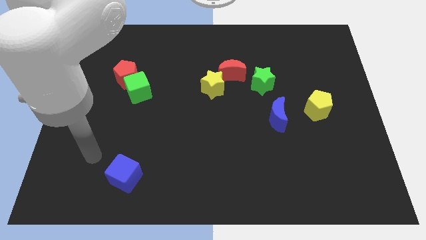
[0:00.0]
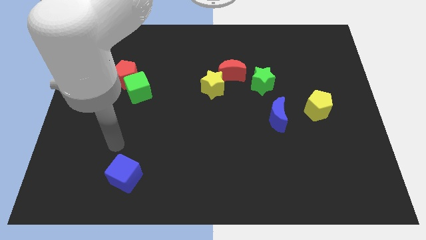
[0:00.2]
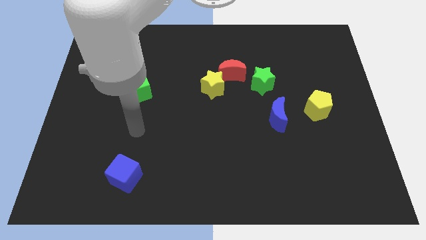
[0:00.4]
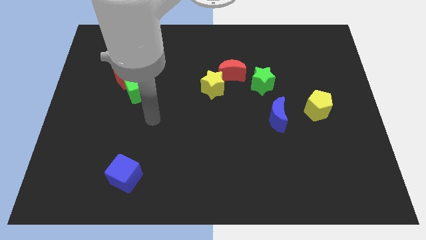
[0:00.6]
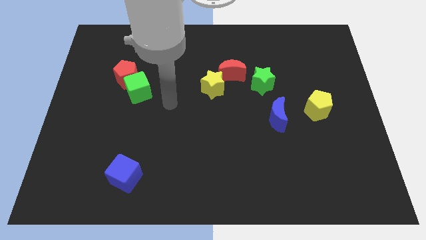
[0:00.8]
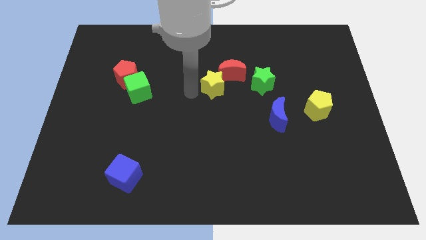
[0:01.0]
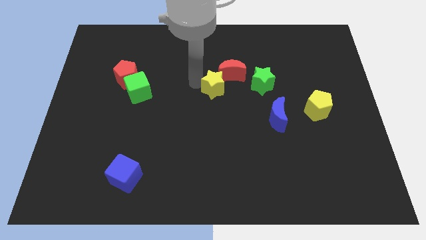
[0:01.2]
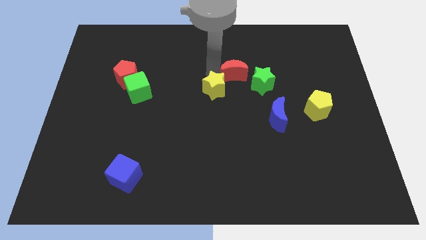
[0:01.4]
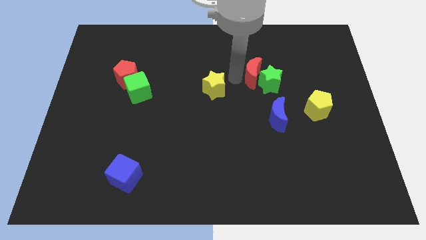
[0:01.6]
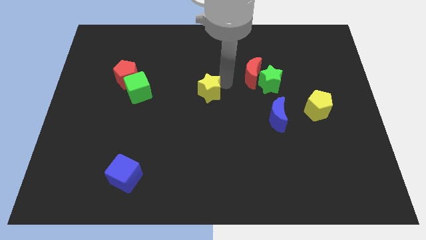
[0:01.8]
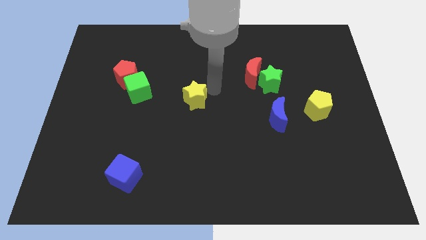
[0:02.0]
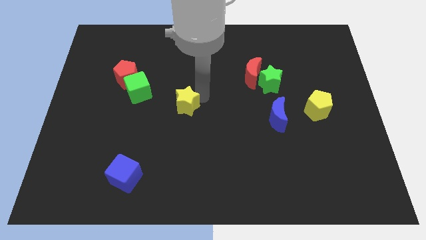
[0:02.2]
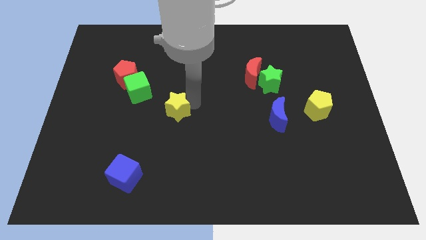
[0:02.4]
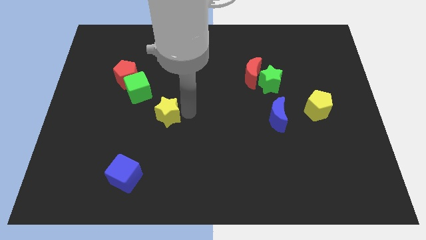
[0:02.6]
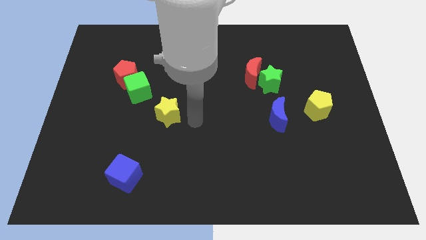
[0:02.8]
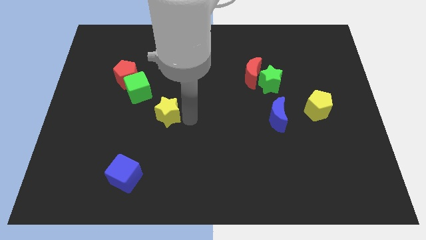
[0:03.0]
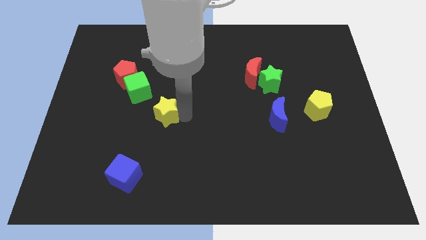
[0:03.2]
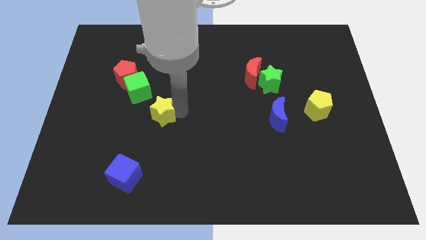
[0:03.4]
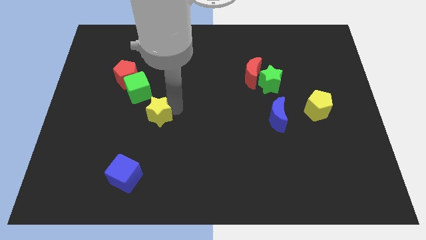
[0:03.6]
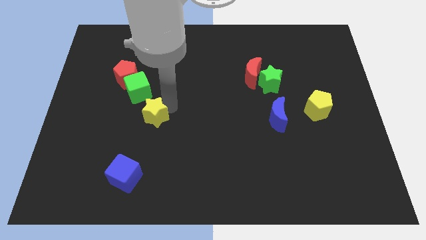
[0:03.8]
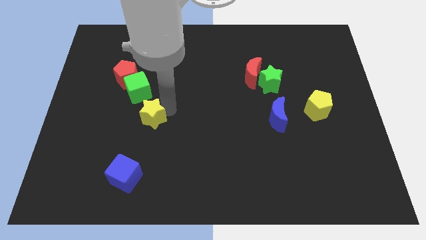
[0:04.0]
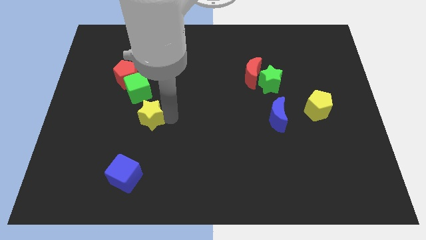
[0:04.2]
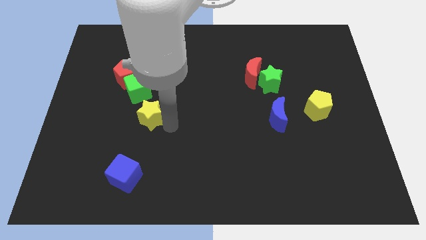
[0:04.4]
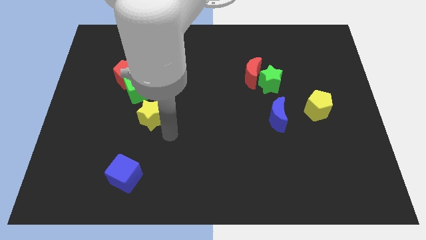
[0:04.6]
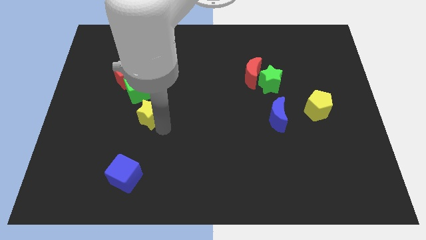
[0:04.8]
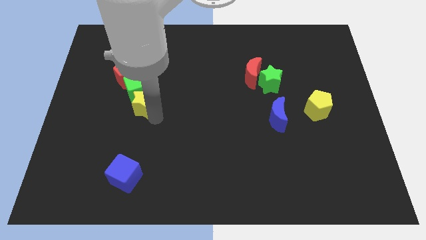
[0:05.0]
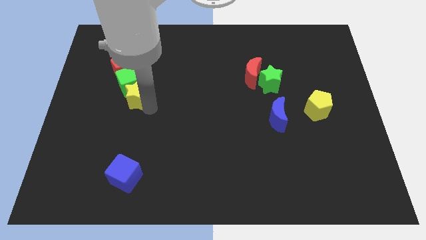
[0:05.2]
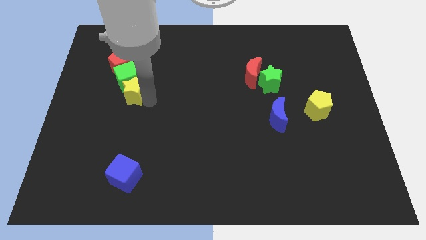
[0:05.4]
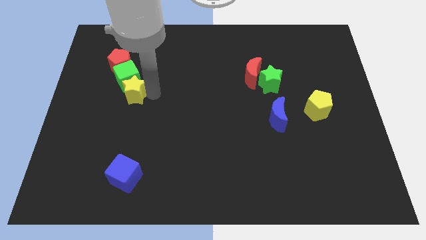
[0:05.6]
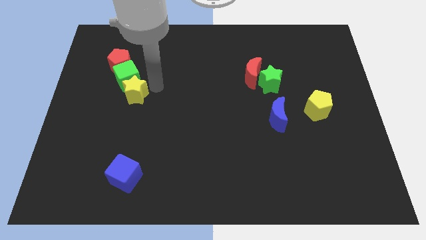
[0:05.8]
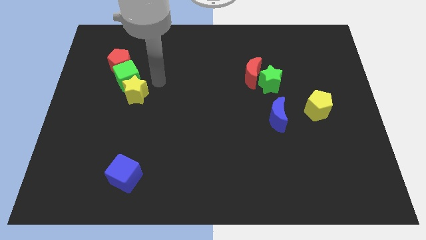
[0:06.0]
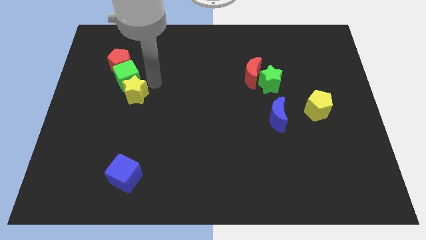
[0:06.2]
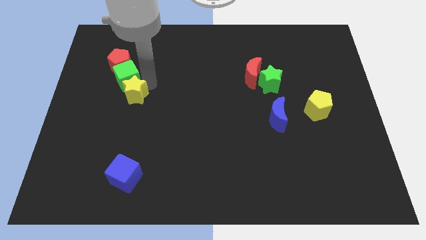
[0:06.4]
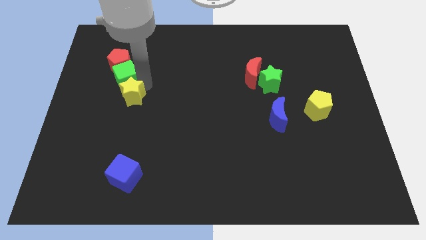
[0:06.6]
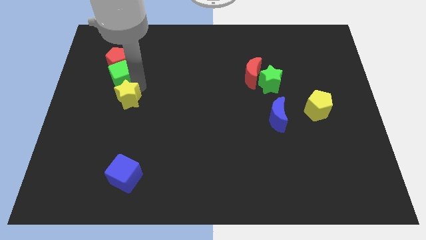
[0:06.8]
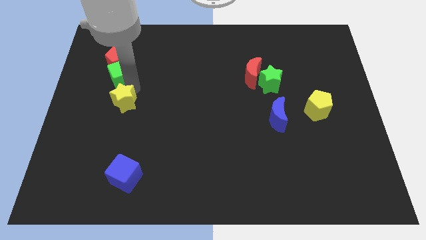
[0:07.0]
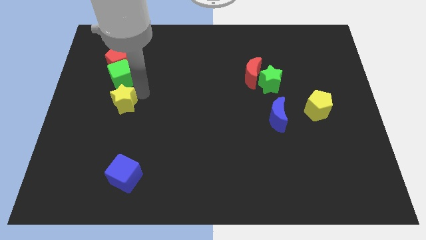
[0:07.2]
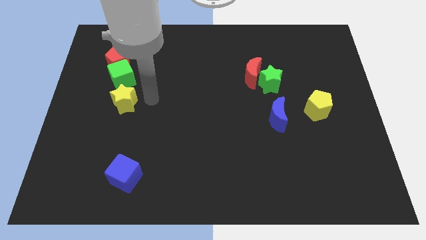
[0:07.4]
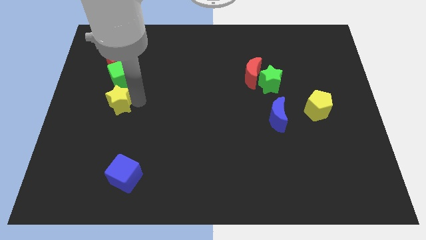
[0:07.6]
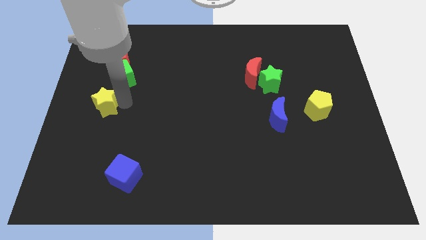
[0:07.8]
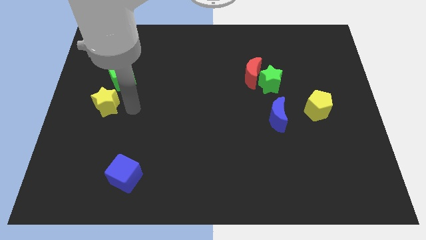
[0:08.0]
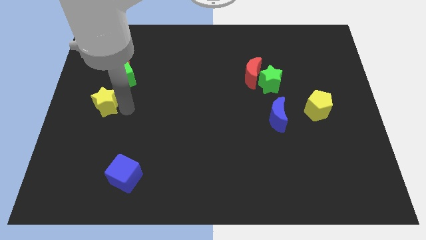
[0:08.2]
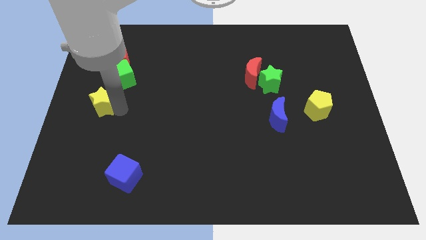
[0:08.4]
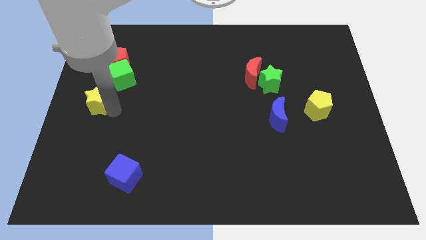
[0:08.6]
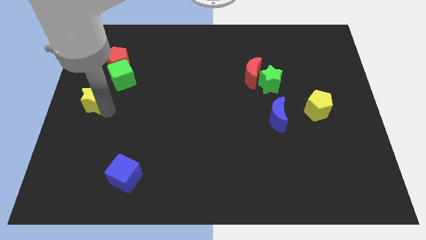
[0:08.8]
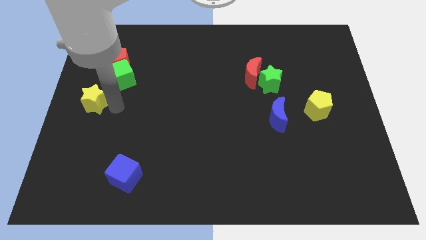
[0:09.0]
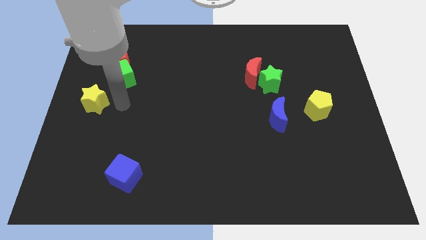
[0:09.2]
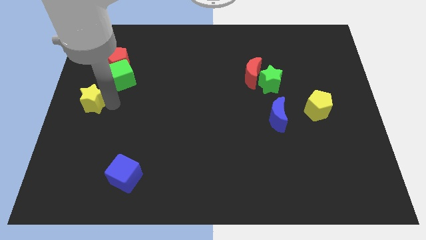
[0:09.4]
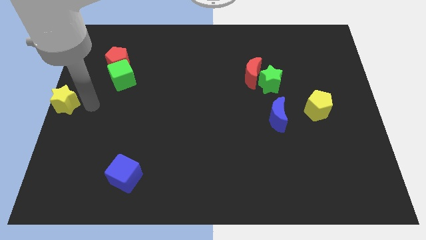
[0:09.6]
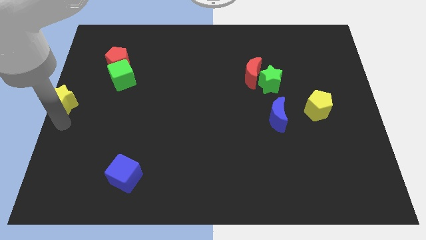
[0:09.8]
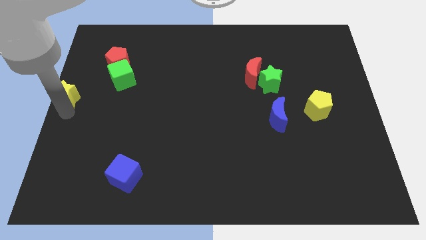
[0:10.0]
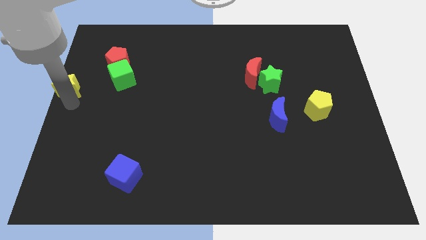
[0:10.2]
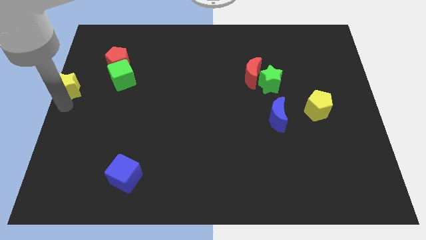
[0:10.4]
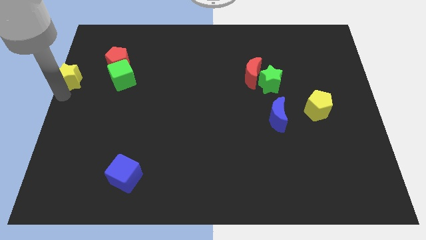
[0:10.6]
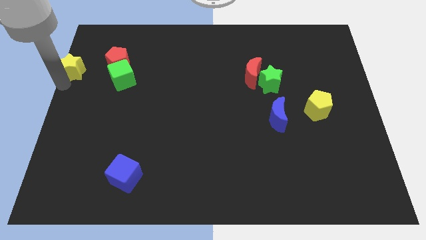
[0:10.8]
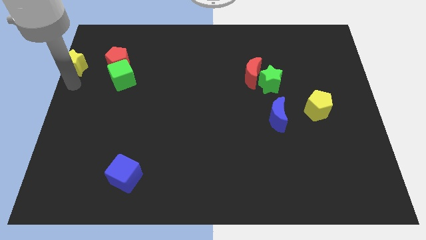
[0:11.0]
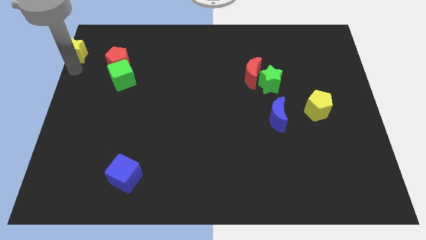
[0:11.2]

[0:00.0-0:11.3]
put the yellow star to the upper left corner

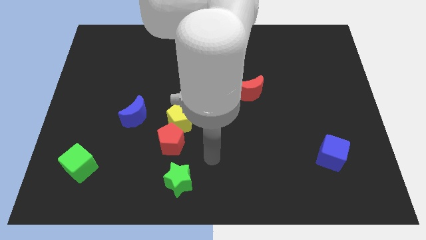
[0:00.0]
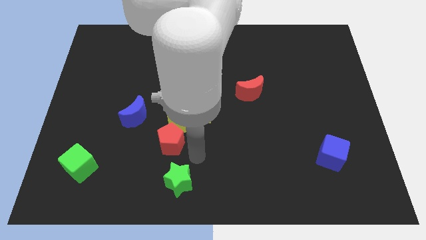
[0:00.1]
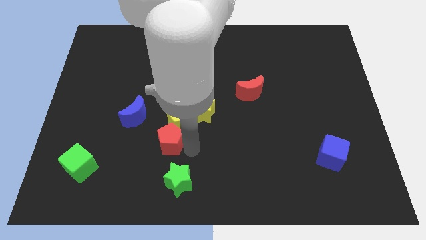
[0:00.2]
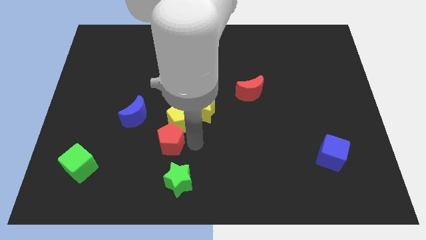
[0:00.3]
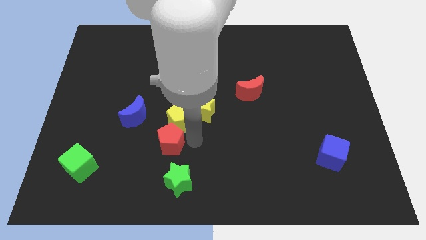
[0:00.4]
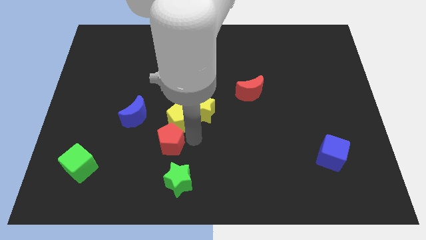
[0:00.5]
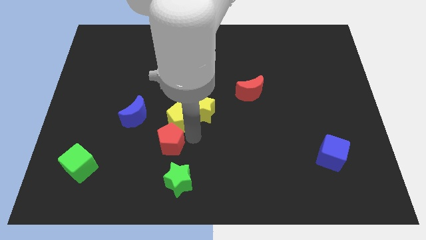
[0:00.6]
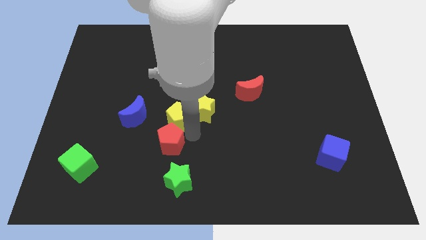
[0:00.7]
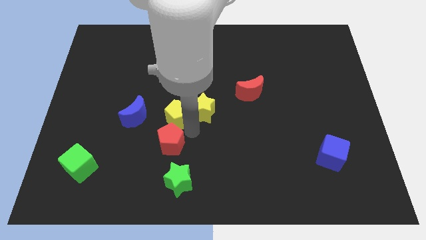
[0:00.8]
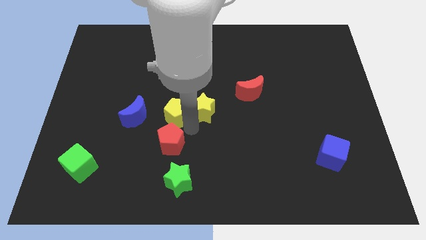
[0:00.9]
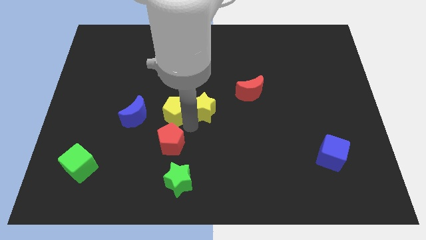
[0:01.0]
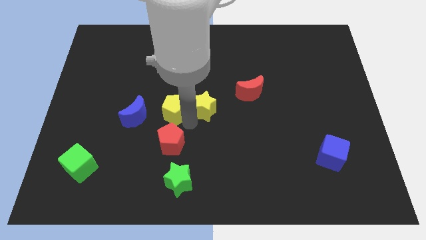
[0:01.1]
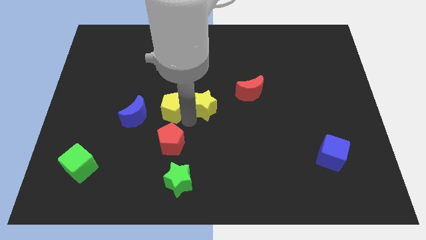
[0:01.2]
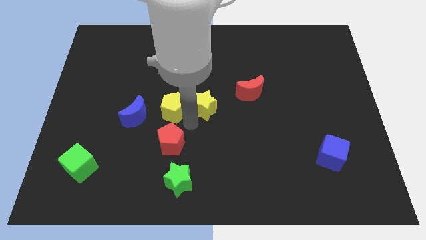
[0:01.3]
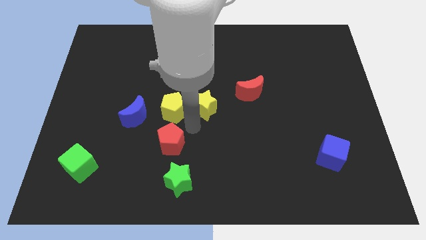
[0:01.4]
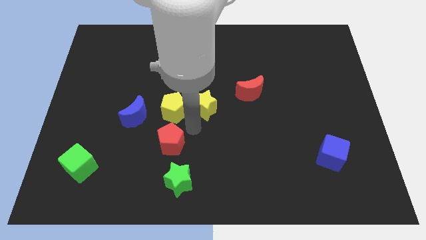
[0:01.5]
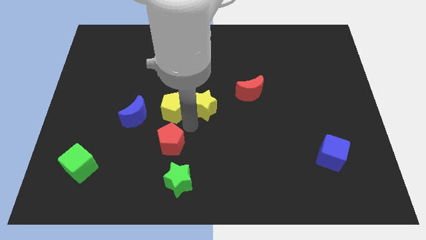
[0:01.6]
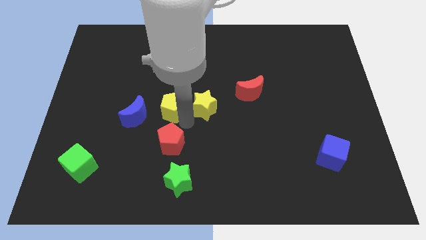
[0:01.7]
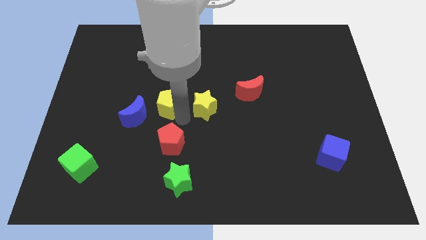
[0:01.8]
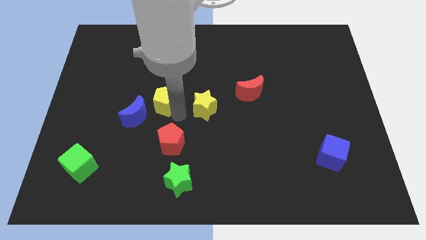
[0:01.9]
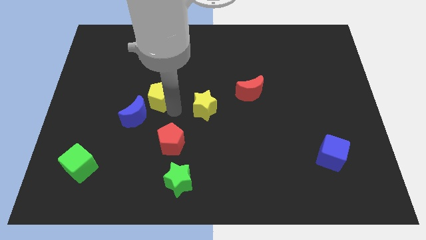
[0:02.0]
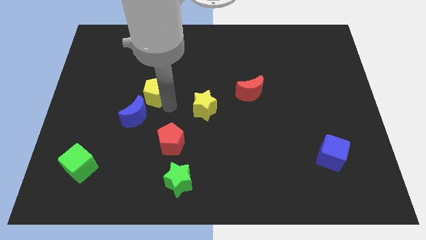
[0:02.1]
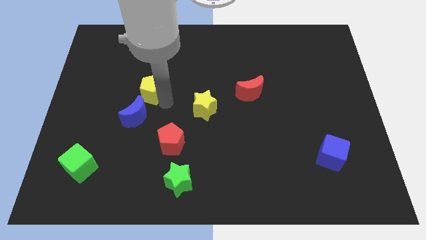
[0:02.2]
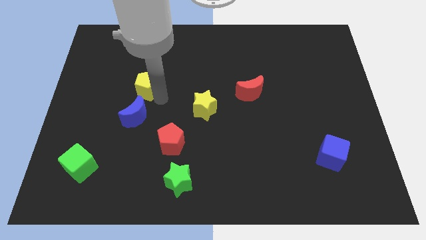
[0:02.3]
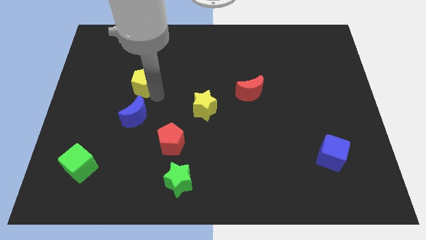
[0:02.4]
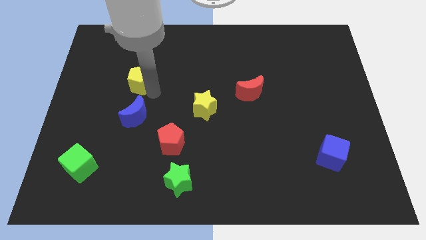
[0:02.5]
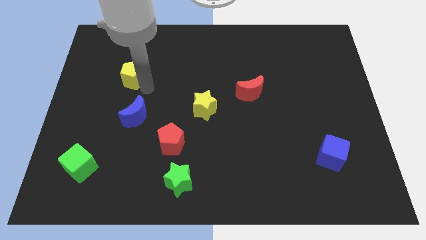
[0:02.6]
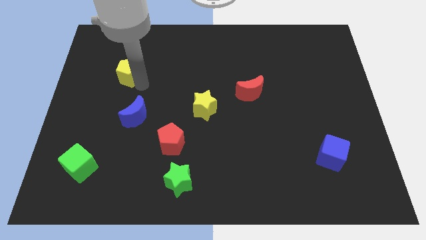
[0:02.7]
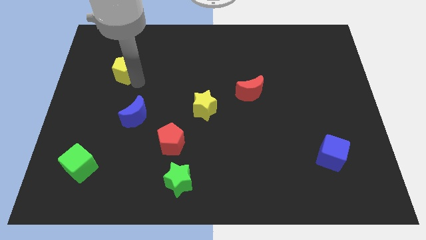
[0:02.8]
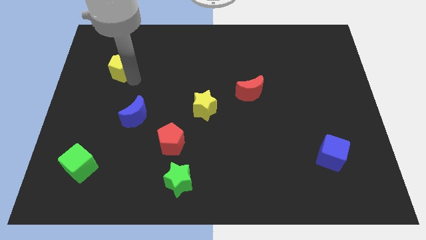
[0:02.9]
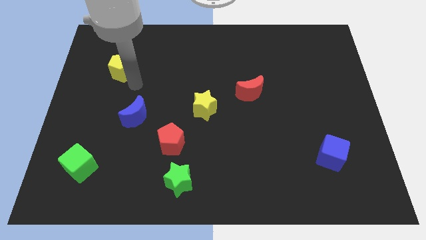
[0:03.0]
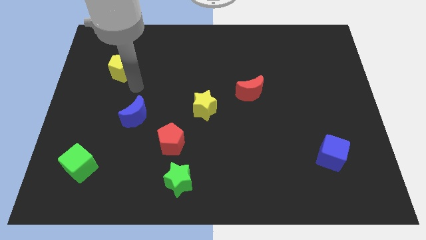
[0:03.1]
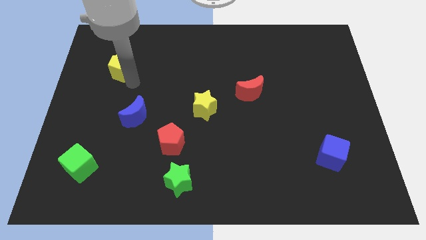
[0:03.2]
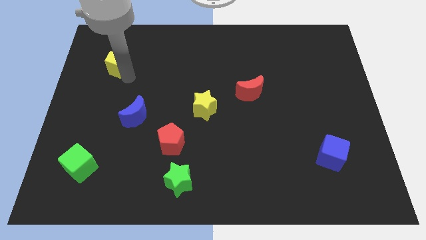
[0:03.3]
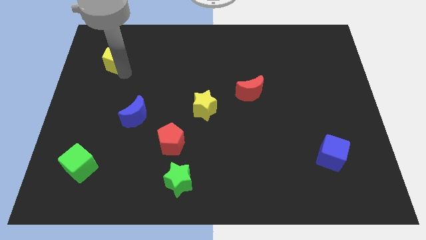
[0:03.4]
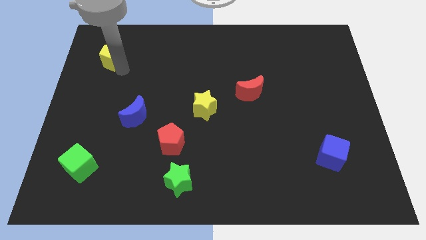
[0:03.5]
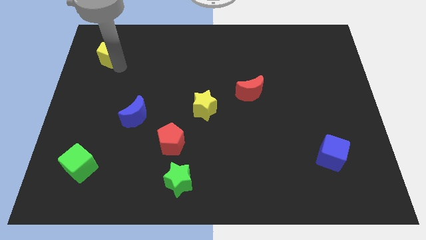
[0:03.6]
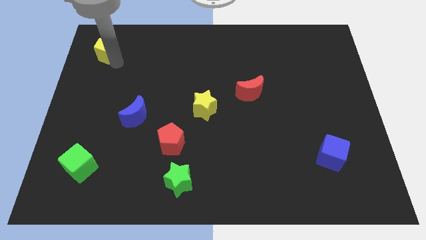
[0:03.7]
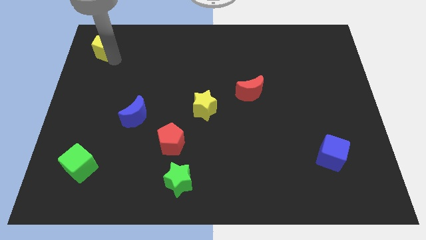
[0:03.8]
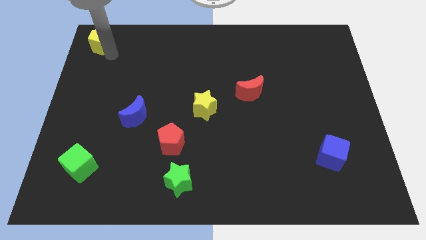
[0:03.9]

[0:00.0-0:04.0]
push the yellow pentagon to the top left
